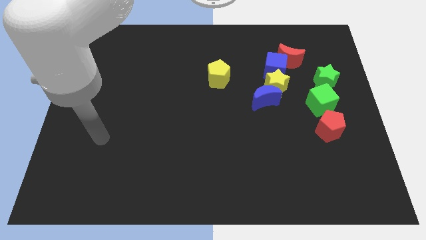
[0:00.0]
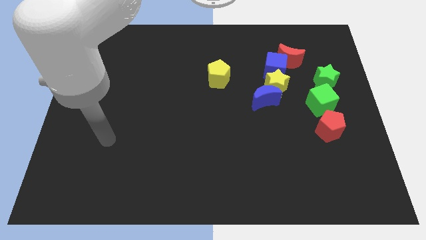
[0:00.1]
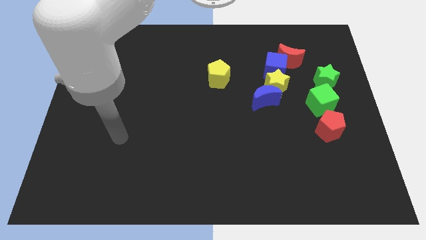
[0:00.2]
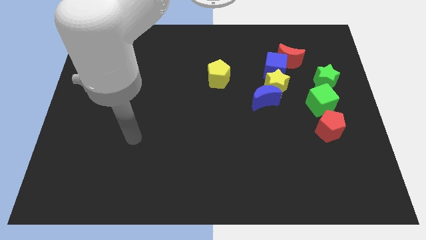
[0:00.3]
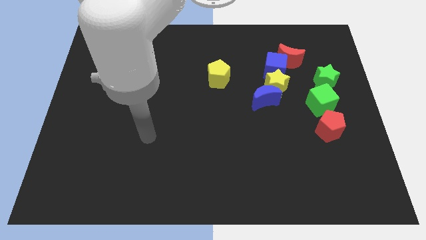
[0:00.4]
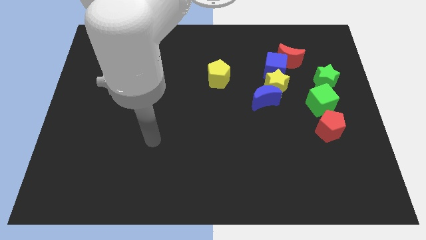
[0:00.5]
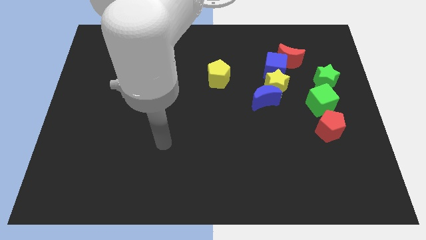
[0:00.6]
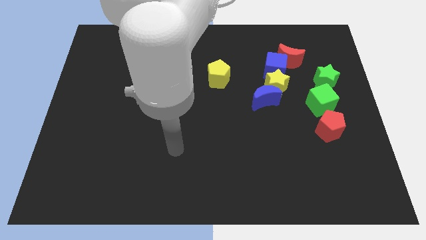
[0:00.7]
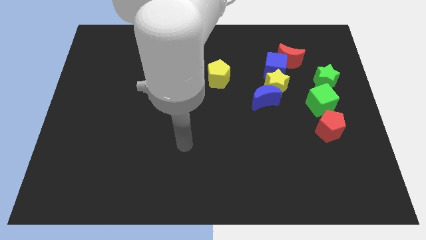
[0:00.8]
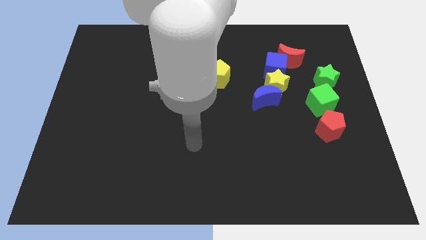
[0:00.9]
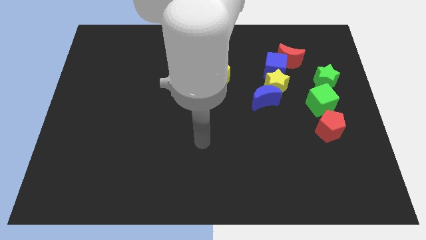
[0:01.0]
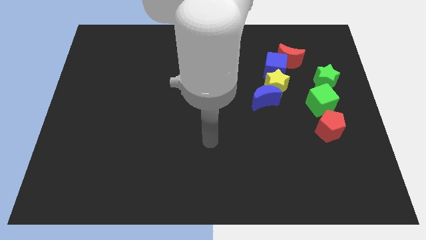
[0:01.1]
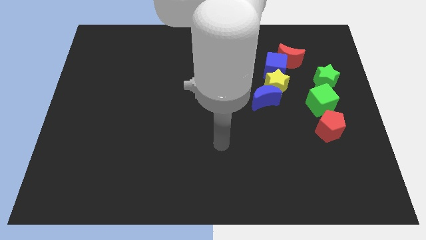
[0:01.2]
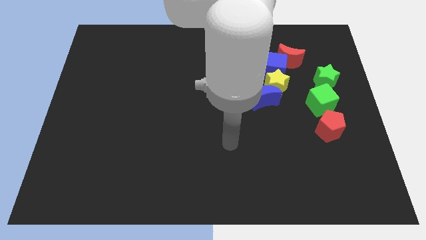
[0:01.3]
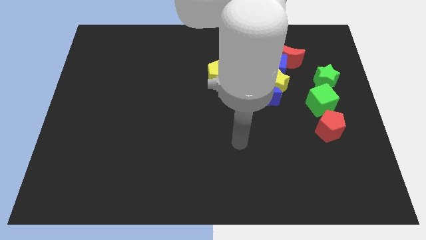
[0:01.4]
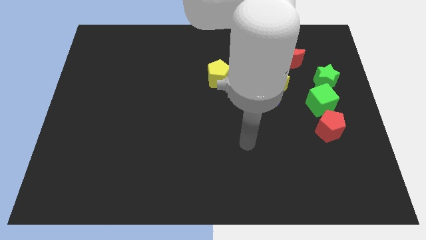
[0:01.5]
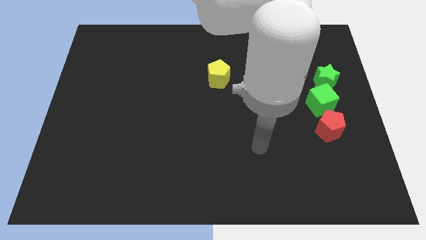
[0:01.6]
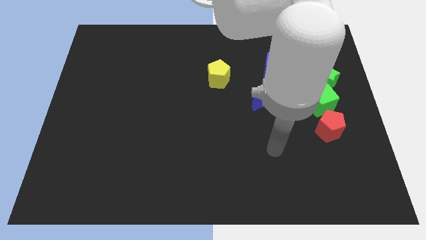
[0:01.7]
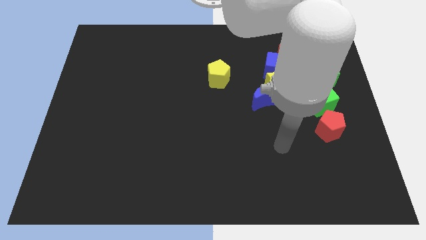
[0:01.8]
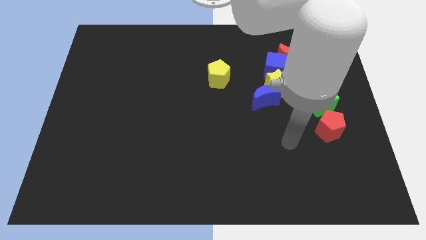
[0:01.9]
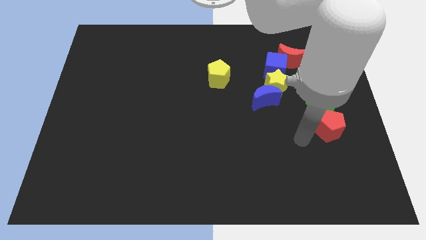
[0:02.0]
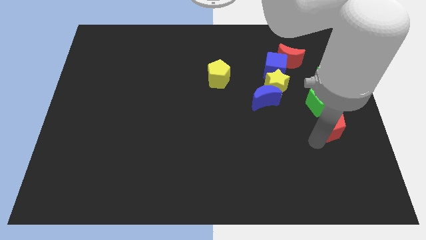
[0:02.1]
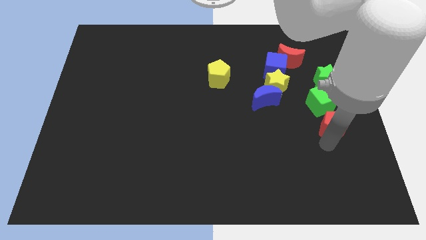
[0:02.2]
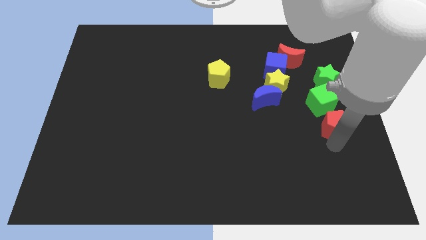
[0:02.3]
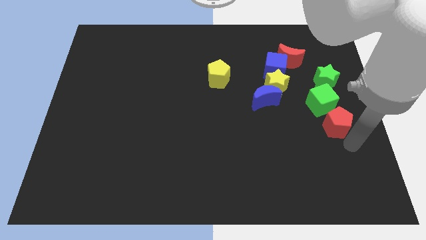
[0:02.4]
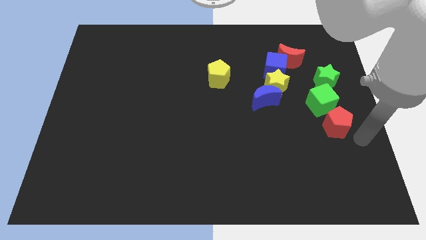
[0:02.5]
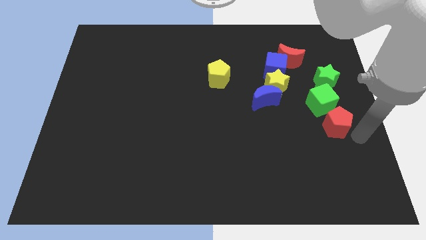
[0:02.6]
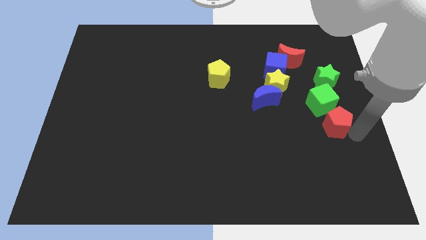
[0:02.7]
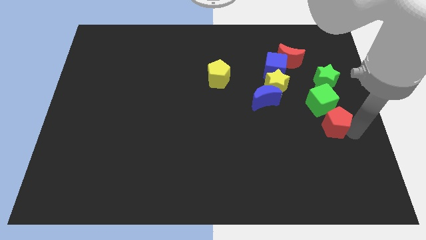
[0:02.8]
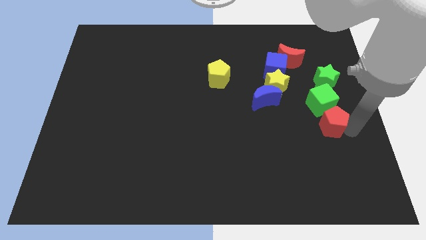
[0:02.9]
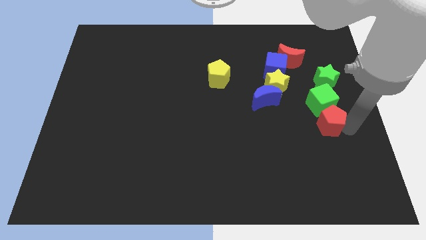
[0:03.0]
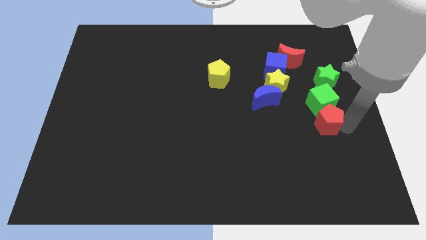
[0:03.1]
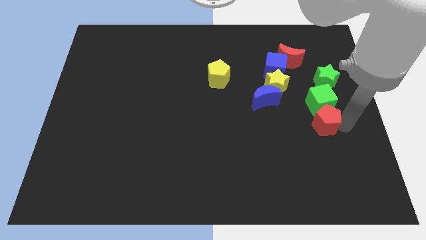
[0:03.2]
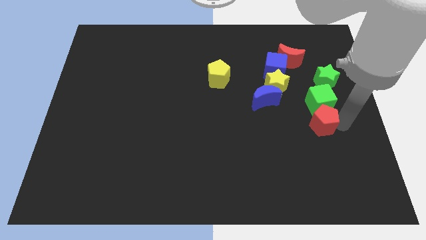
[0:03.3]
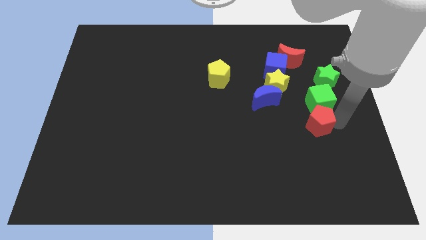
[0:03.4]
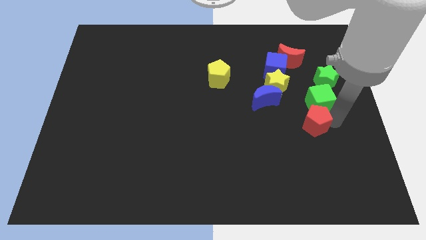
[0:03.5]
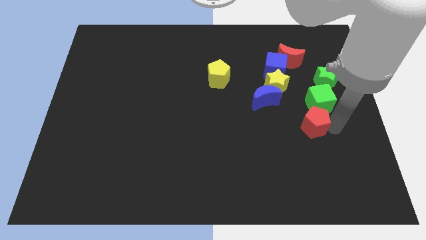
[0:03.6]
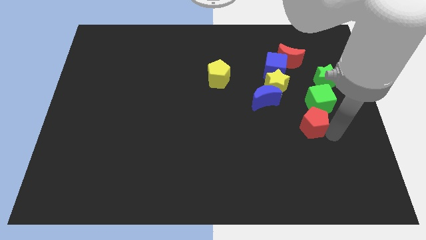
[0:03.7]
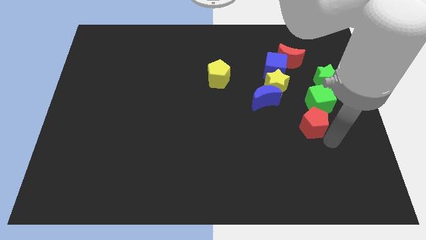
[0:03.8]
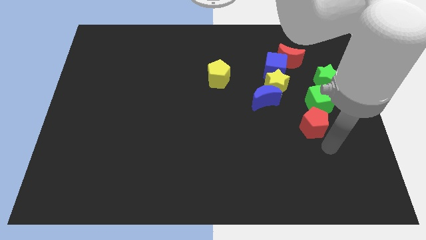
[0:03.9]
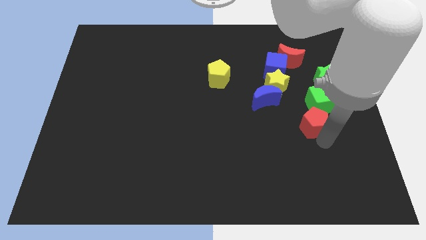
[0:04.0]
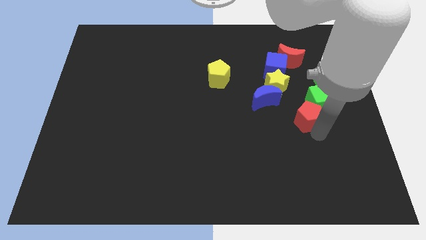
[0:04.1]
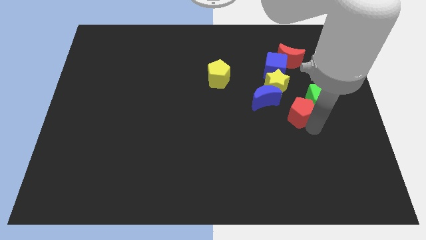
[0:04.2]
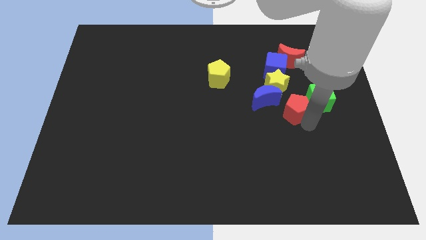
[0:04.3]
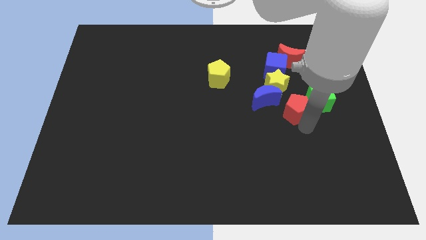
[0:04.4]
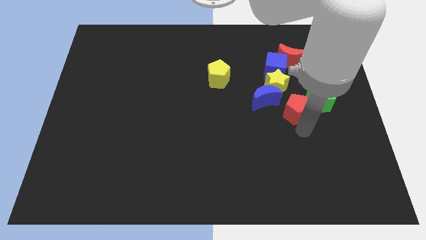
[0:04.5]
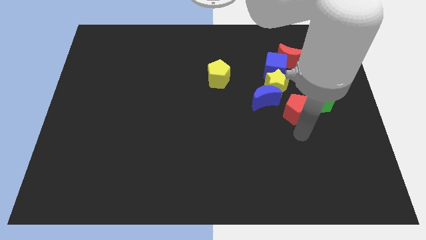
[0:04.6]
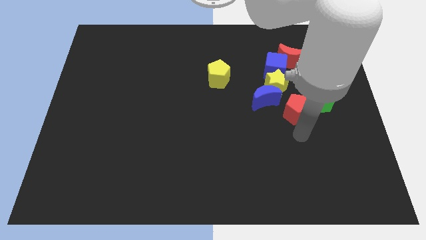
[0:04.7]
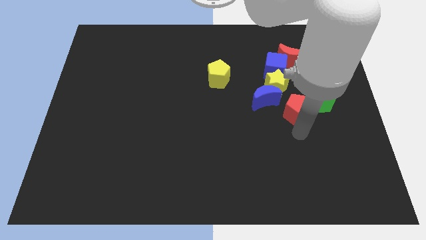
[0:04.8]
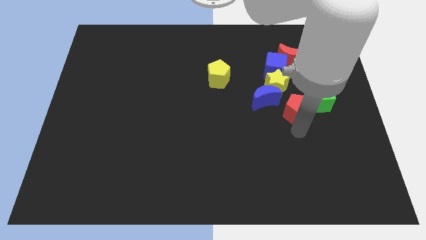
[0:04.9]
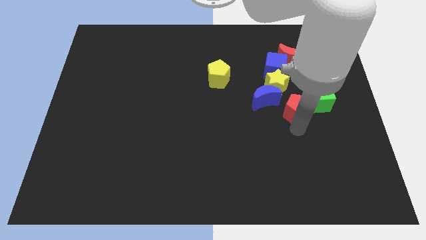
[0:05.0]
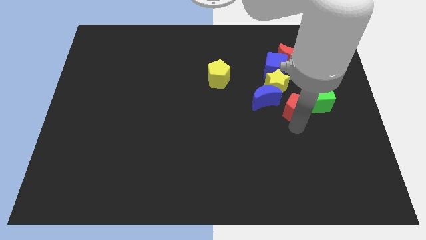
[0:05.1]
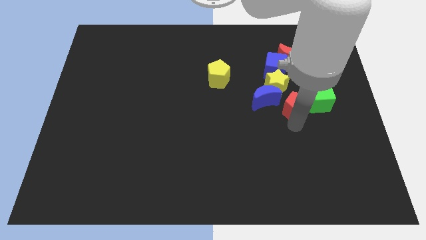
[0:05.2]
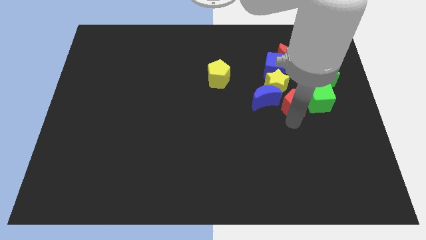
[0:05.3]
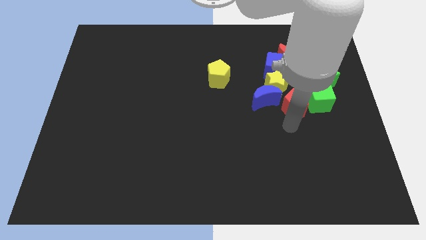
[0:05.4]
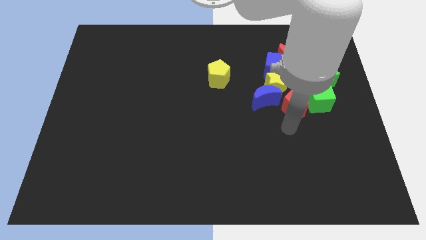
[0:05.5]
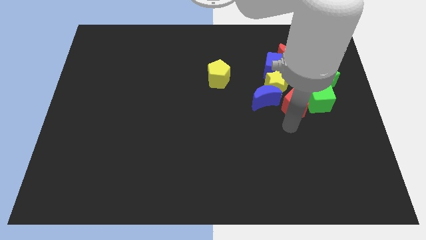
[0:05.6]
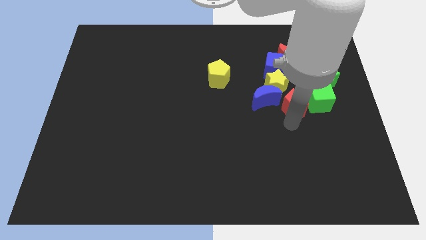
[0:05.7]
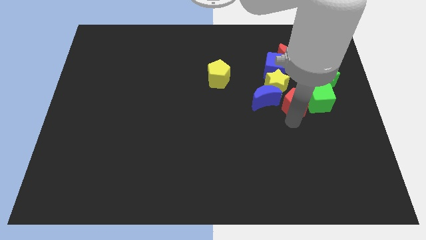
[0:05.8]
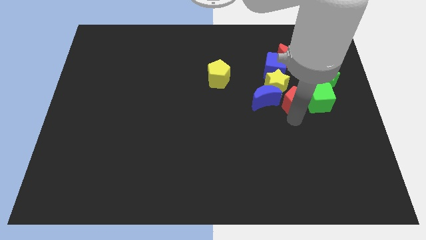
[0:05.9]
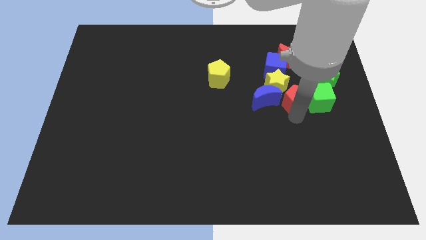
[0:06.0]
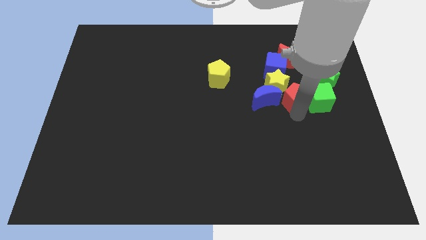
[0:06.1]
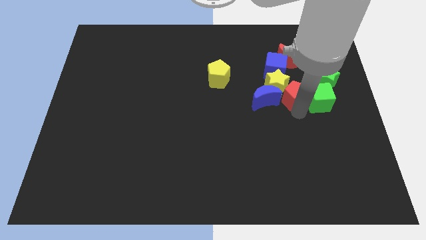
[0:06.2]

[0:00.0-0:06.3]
move the red pentagon a little bit upwards

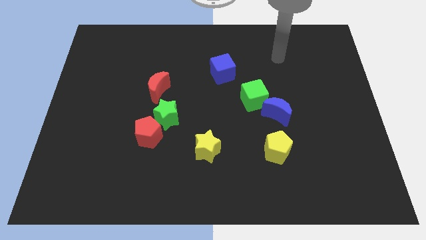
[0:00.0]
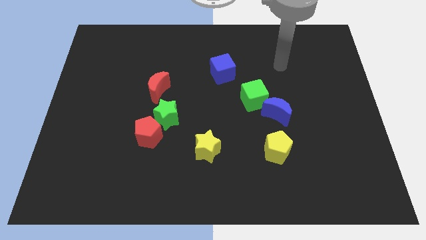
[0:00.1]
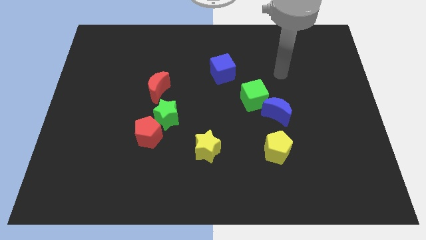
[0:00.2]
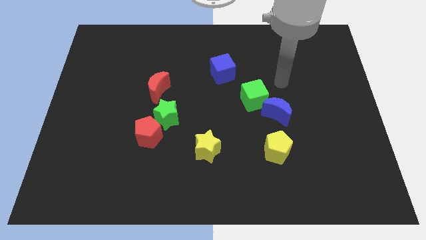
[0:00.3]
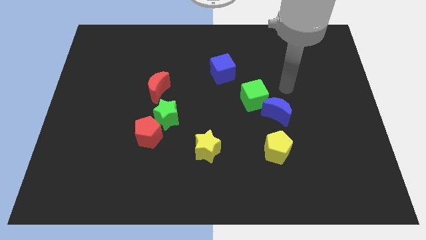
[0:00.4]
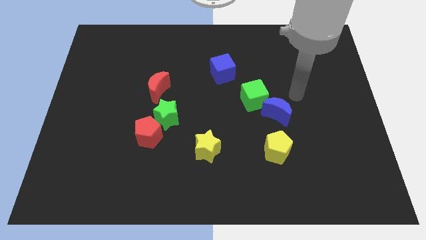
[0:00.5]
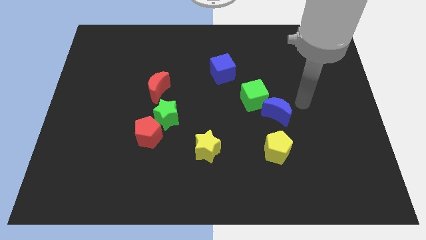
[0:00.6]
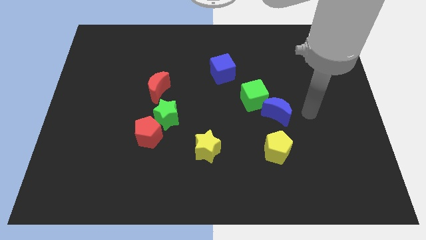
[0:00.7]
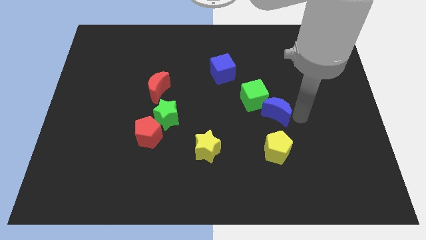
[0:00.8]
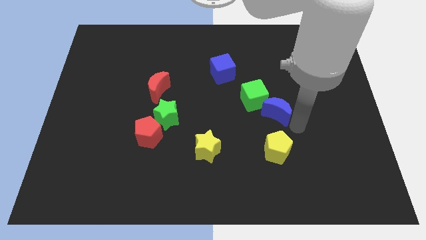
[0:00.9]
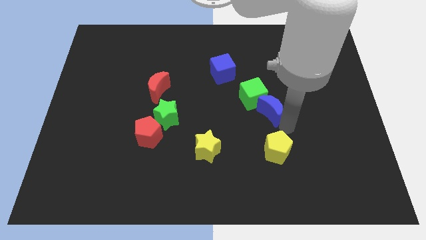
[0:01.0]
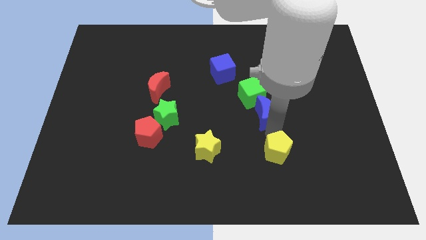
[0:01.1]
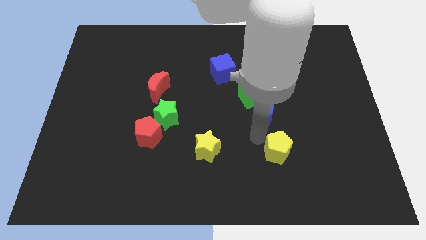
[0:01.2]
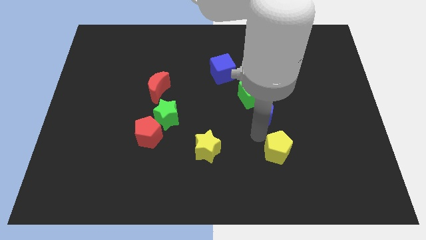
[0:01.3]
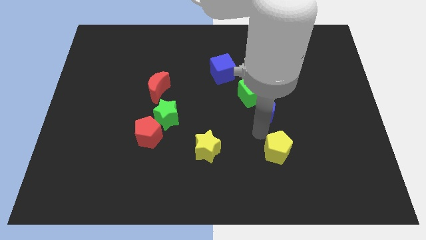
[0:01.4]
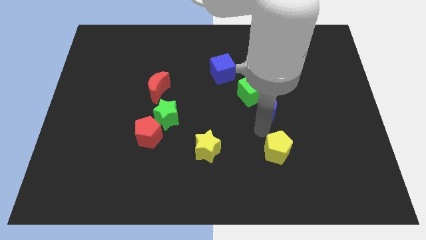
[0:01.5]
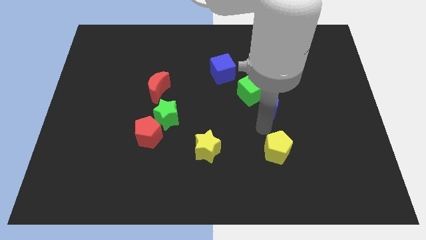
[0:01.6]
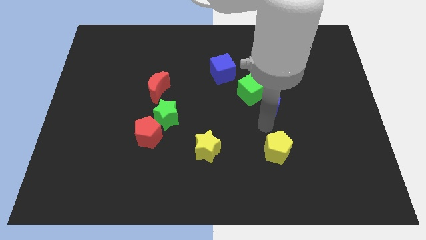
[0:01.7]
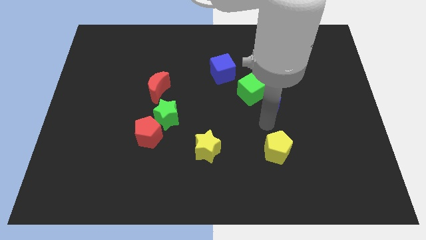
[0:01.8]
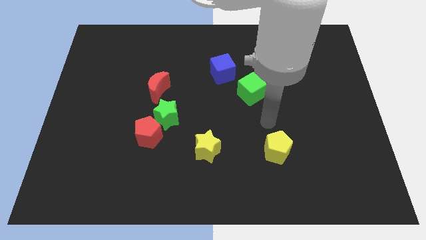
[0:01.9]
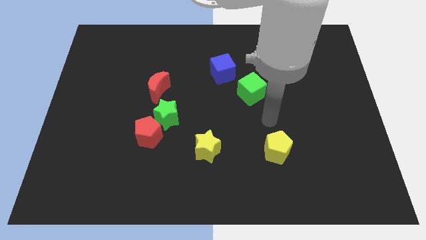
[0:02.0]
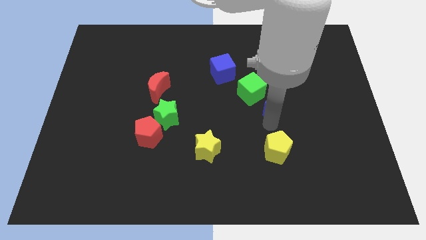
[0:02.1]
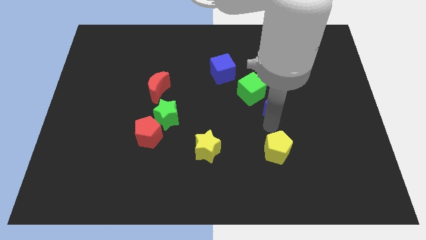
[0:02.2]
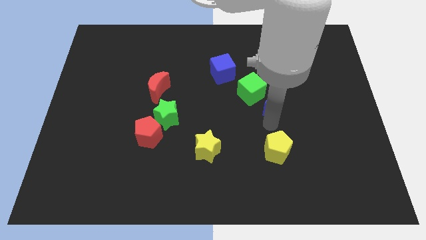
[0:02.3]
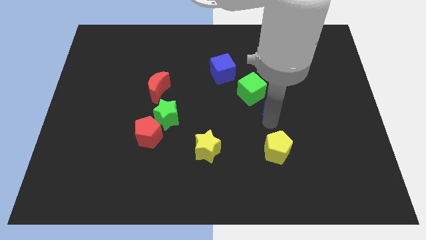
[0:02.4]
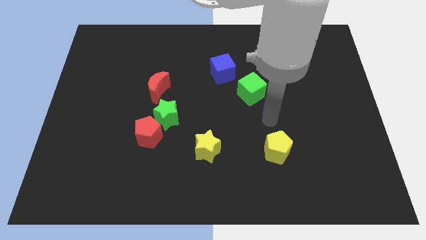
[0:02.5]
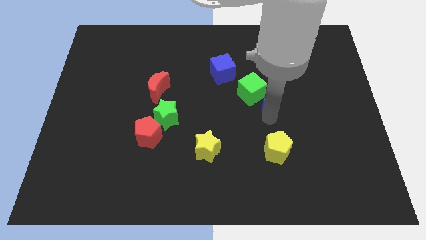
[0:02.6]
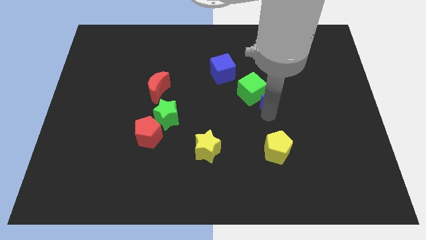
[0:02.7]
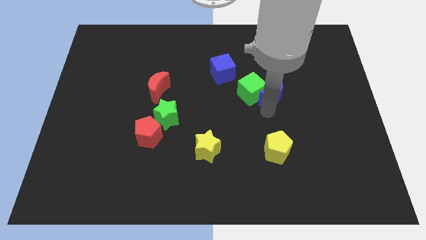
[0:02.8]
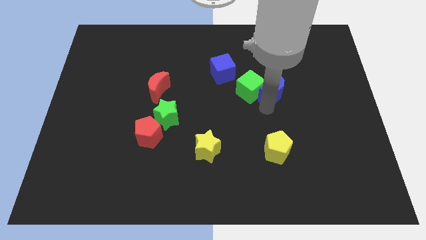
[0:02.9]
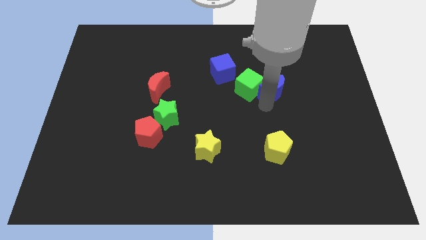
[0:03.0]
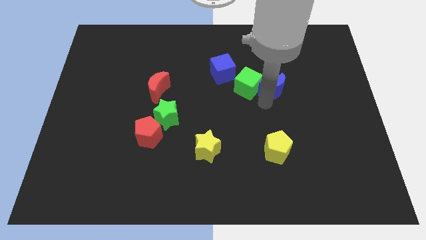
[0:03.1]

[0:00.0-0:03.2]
push the blue moon a bit upwards
